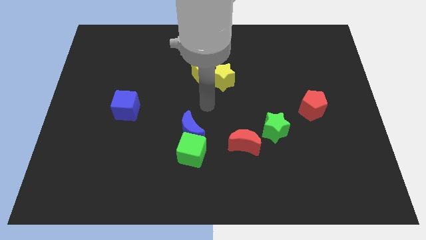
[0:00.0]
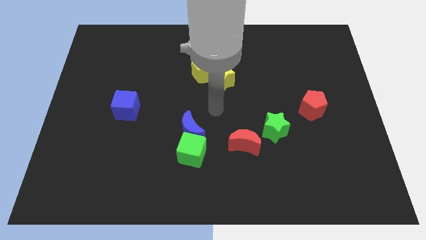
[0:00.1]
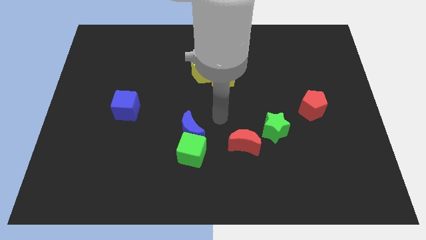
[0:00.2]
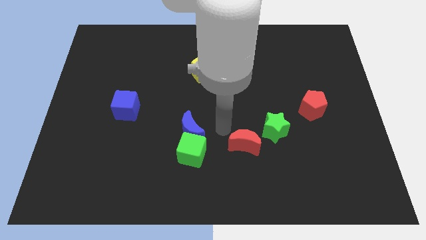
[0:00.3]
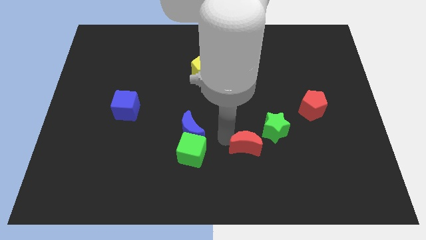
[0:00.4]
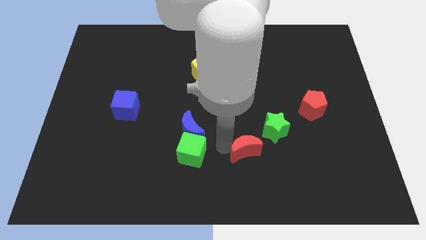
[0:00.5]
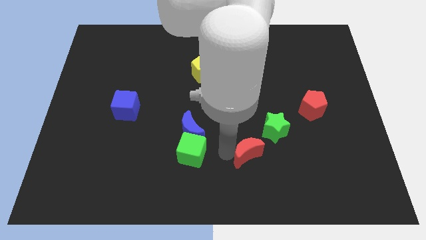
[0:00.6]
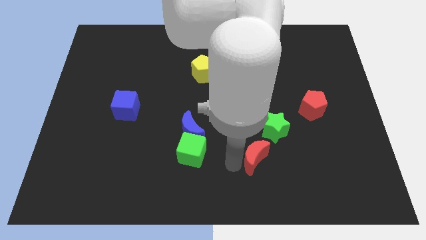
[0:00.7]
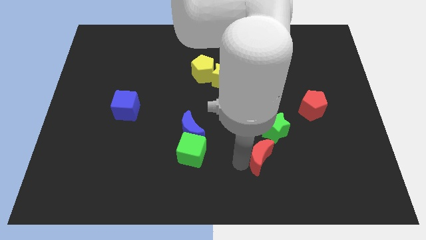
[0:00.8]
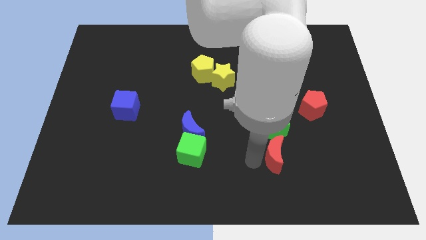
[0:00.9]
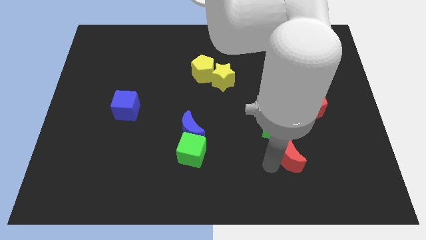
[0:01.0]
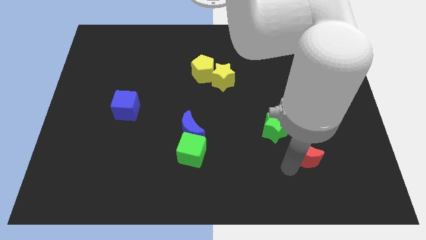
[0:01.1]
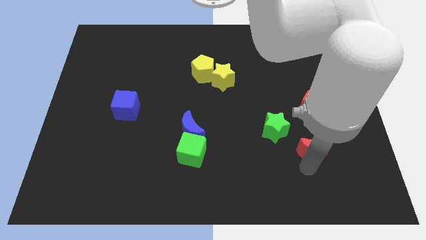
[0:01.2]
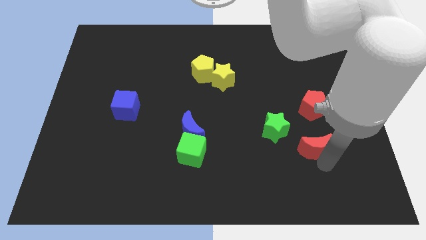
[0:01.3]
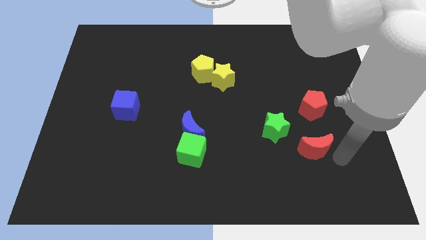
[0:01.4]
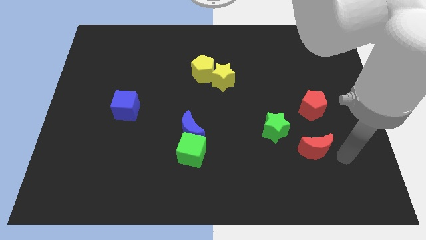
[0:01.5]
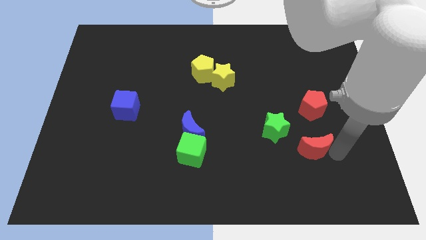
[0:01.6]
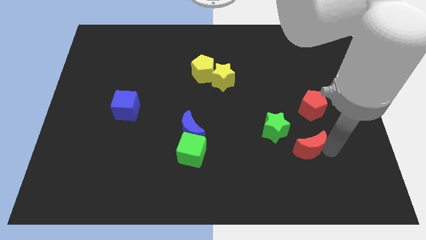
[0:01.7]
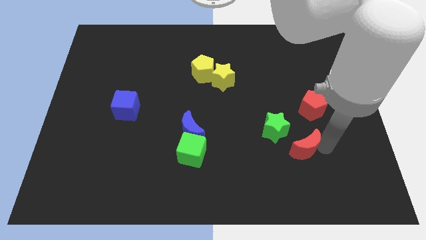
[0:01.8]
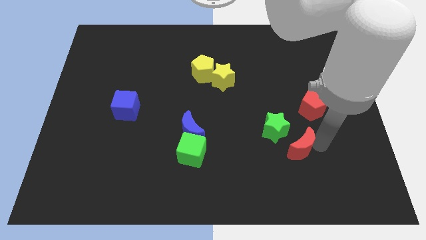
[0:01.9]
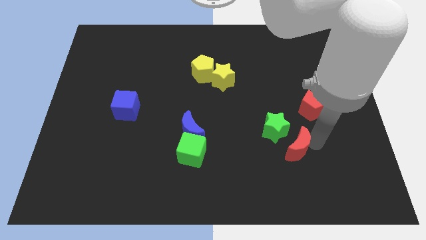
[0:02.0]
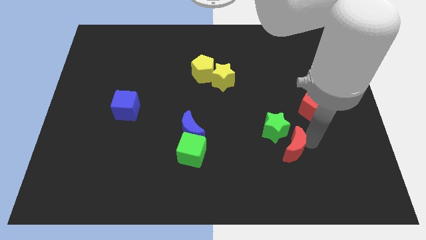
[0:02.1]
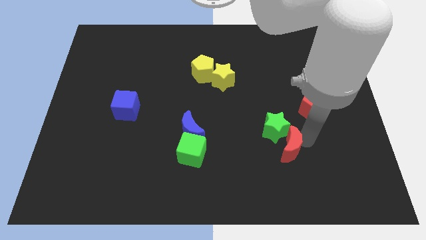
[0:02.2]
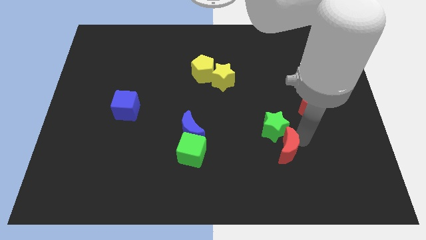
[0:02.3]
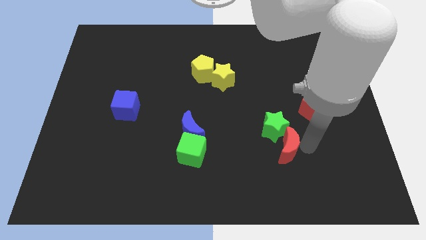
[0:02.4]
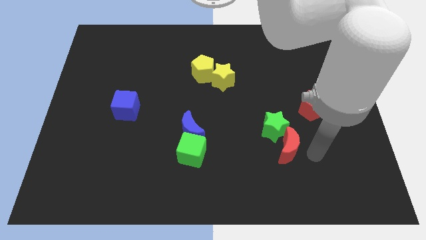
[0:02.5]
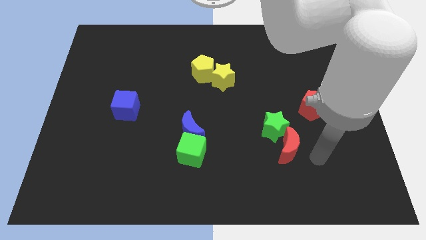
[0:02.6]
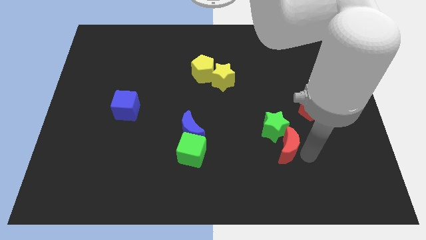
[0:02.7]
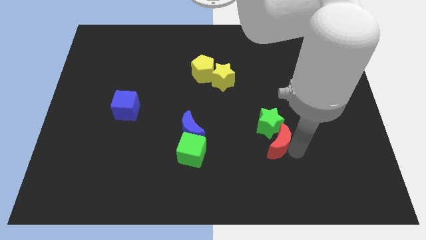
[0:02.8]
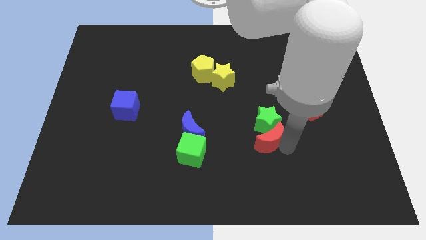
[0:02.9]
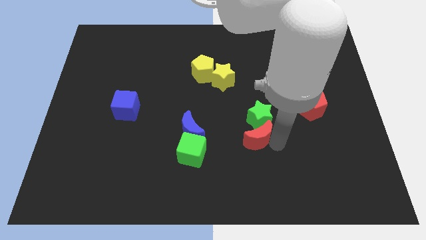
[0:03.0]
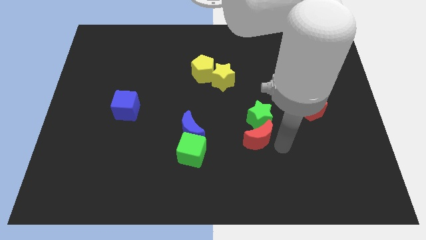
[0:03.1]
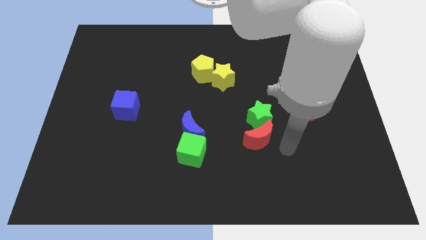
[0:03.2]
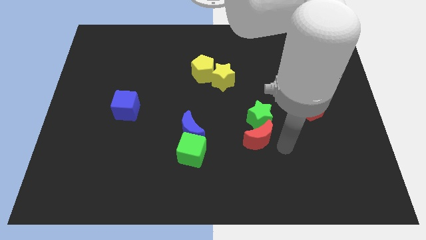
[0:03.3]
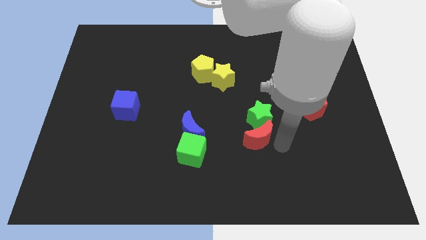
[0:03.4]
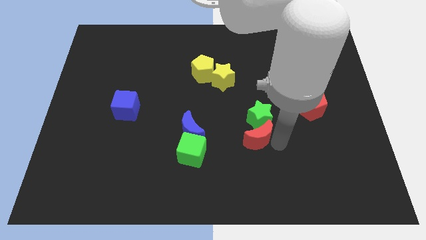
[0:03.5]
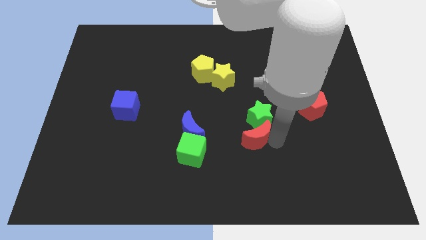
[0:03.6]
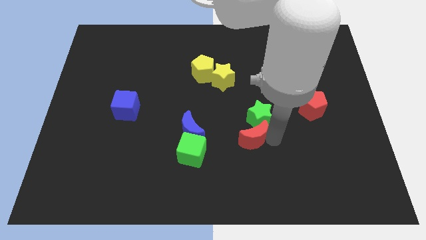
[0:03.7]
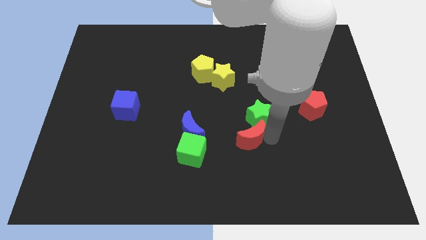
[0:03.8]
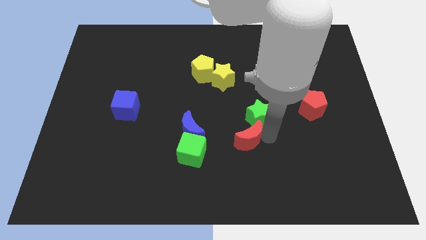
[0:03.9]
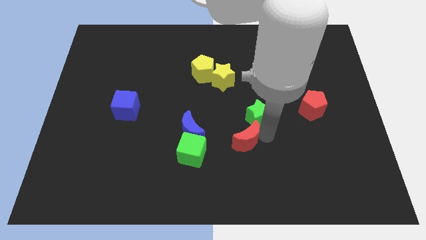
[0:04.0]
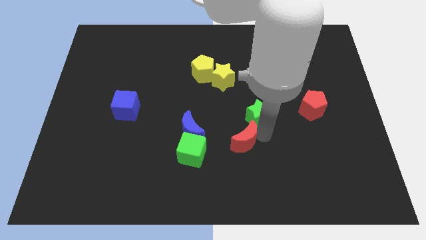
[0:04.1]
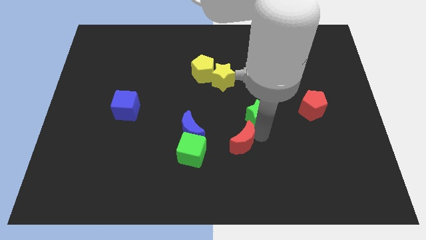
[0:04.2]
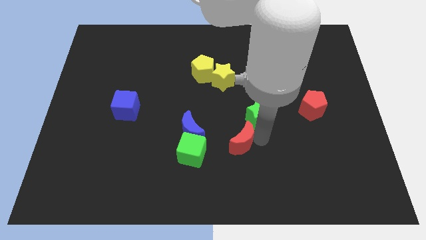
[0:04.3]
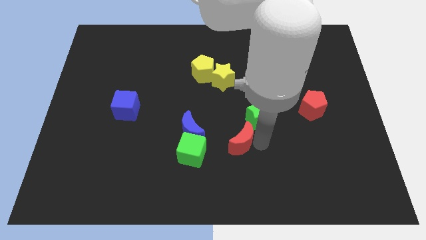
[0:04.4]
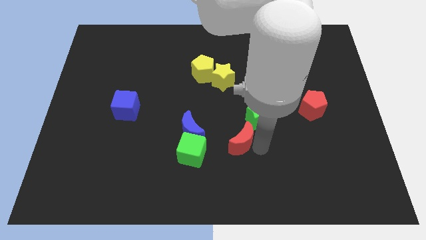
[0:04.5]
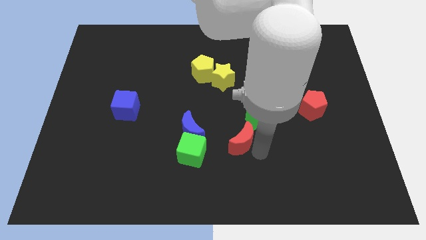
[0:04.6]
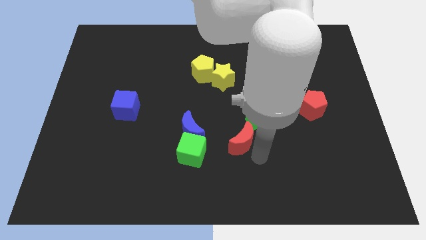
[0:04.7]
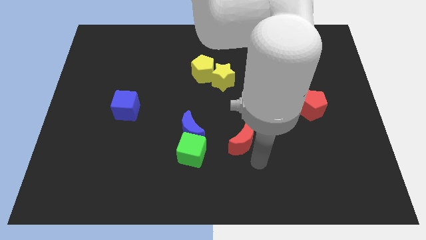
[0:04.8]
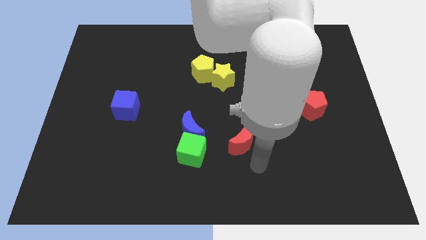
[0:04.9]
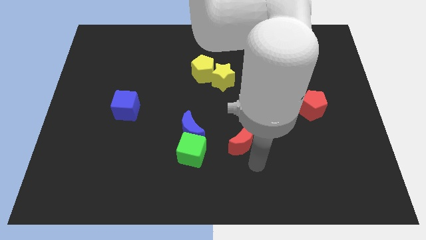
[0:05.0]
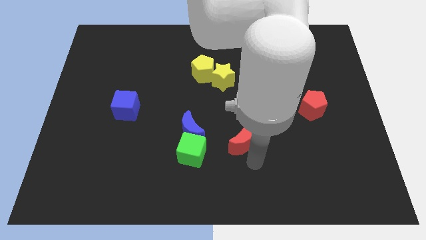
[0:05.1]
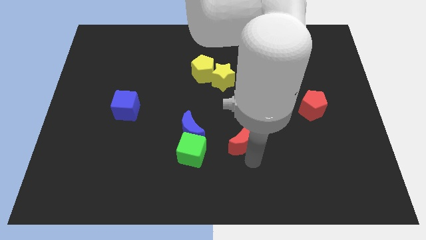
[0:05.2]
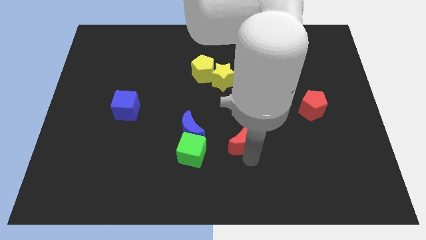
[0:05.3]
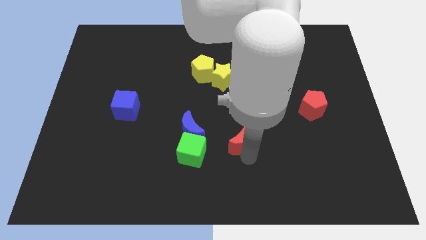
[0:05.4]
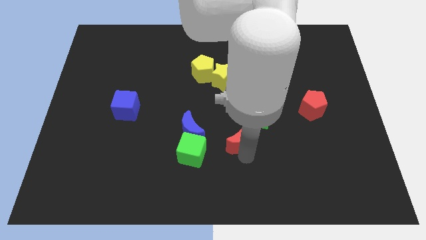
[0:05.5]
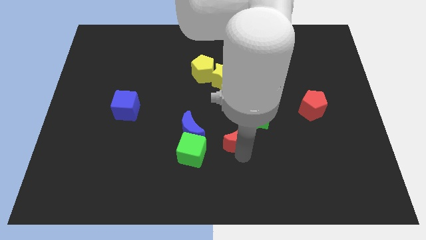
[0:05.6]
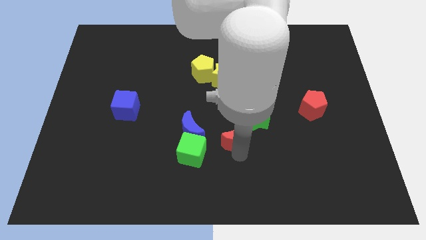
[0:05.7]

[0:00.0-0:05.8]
push the red moon to the center of the board

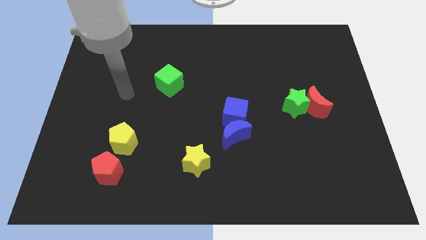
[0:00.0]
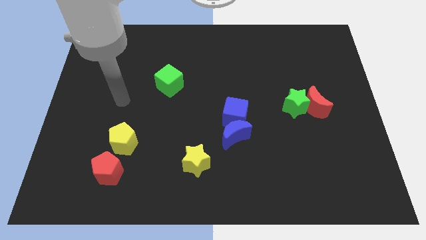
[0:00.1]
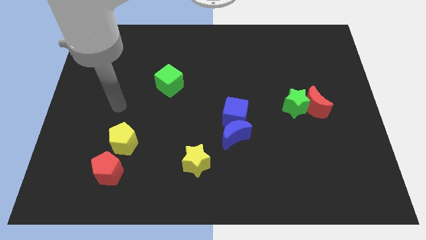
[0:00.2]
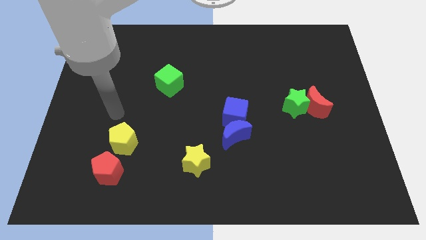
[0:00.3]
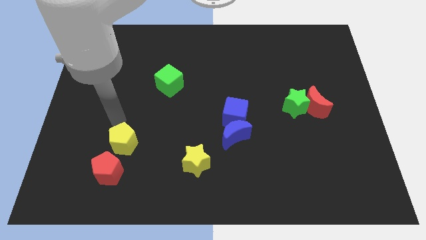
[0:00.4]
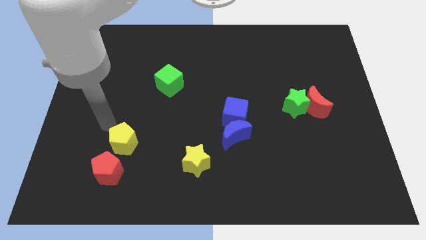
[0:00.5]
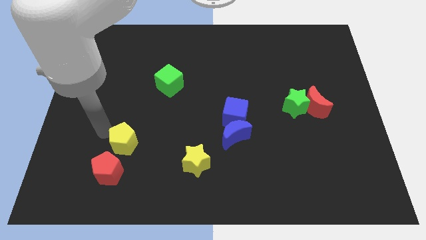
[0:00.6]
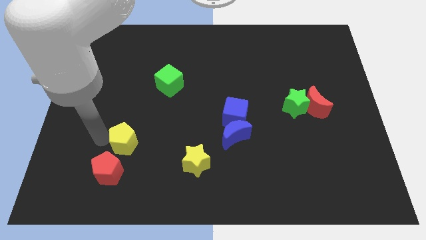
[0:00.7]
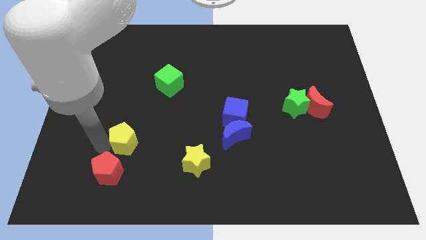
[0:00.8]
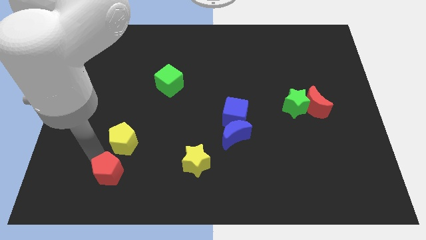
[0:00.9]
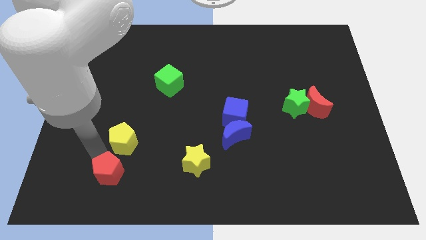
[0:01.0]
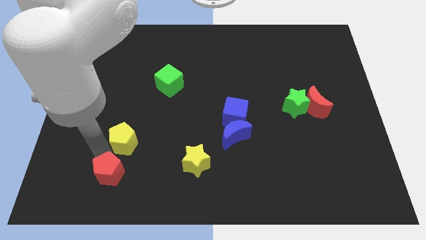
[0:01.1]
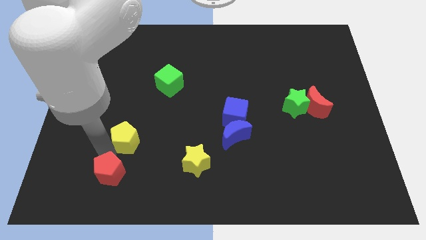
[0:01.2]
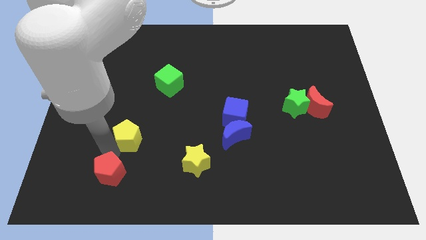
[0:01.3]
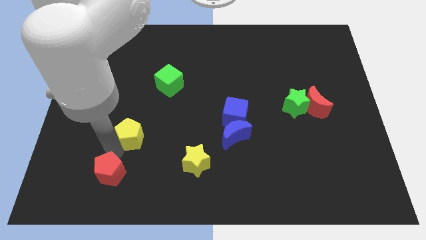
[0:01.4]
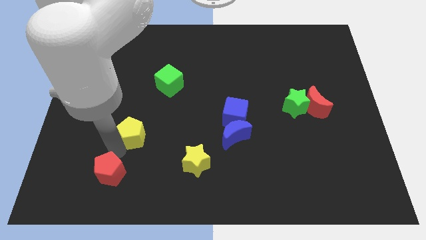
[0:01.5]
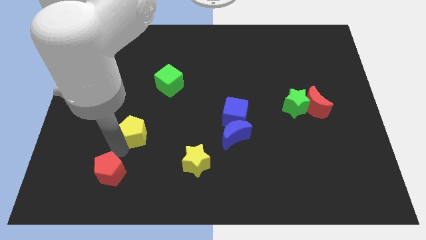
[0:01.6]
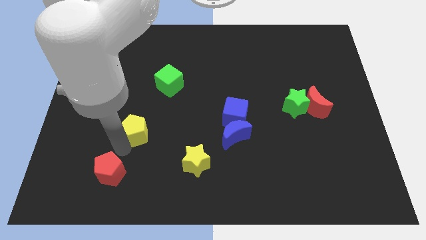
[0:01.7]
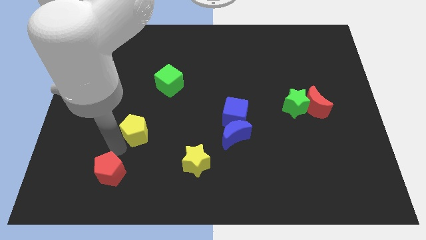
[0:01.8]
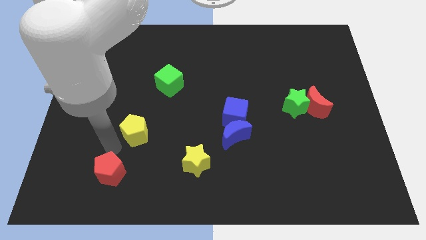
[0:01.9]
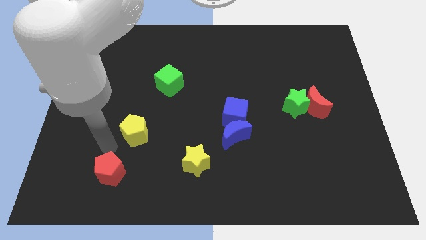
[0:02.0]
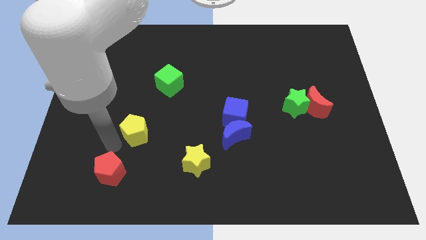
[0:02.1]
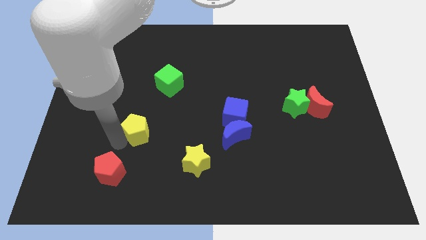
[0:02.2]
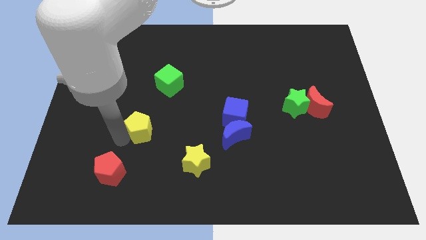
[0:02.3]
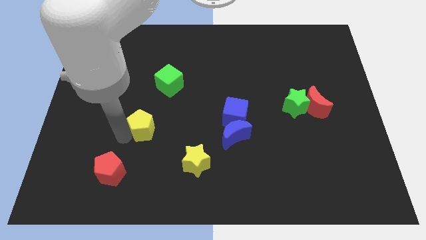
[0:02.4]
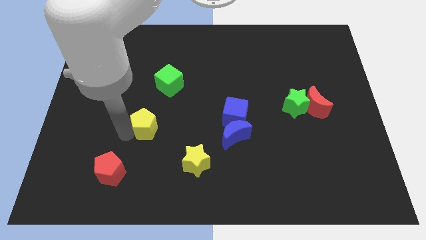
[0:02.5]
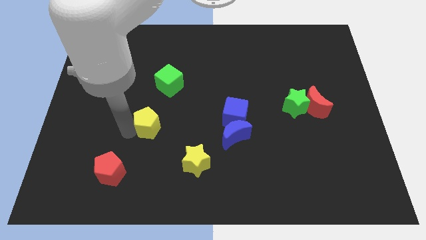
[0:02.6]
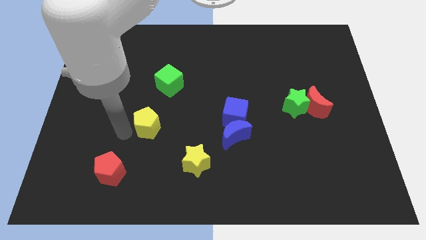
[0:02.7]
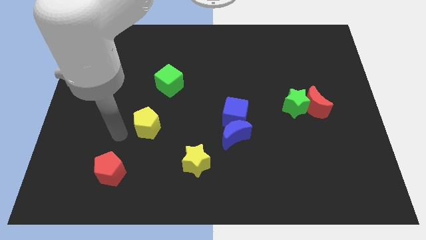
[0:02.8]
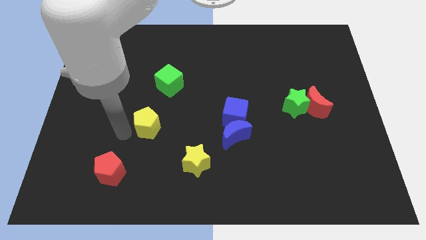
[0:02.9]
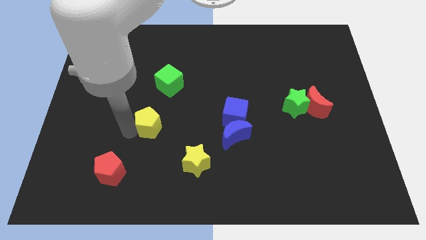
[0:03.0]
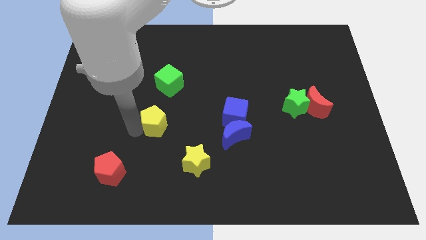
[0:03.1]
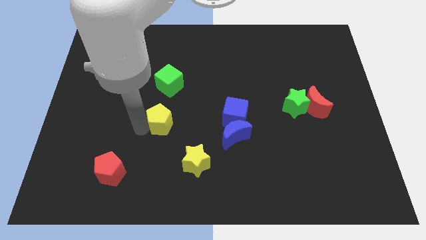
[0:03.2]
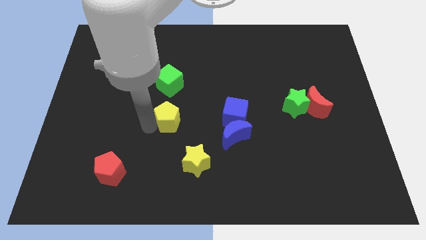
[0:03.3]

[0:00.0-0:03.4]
push the yellow pentagon to the middle of the board
